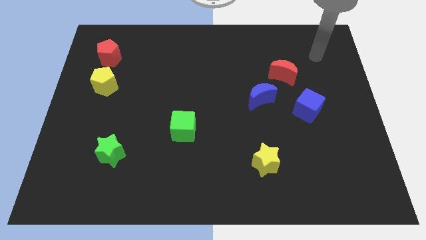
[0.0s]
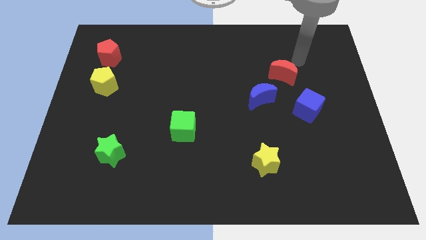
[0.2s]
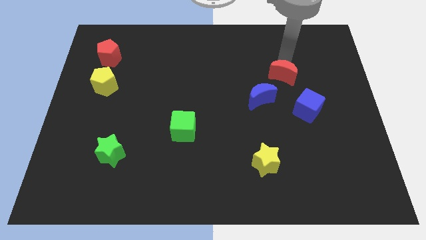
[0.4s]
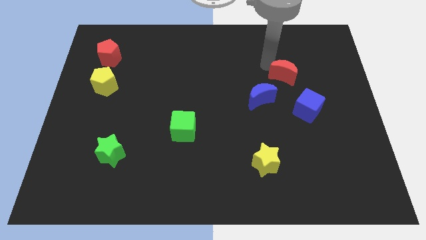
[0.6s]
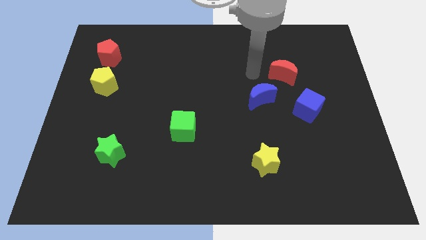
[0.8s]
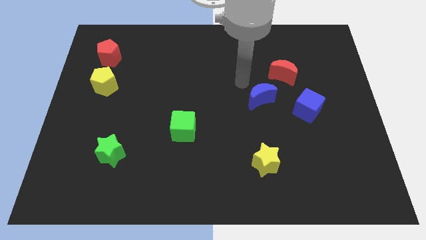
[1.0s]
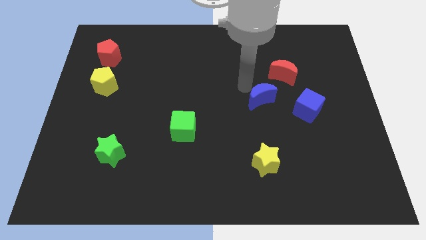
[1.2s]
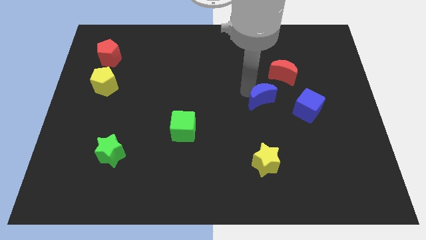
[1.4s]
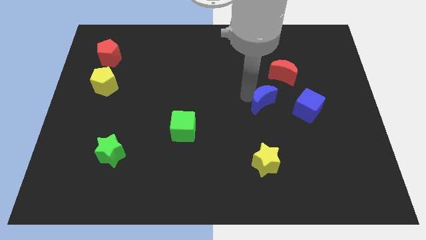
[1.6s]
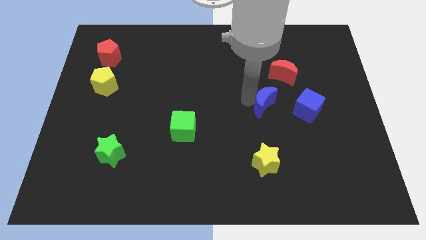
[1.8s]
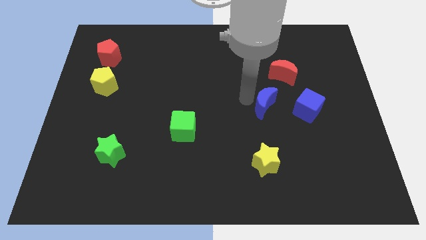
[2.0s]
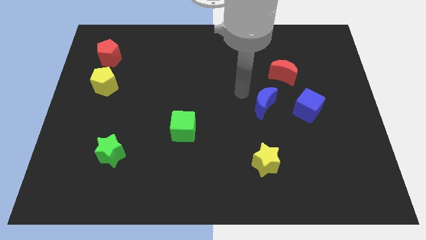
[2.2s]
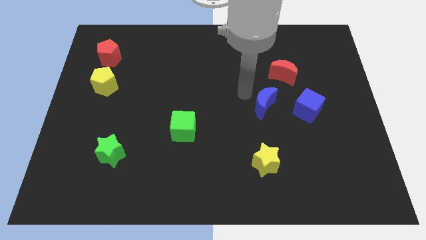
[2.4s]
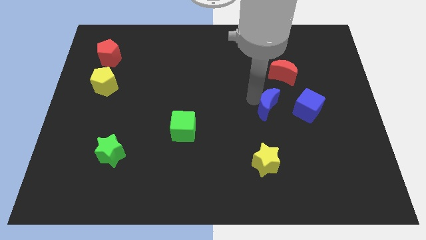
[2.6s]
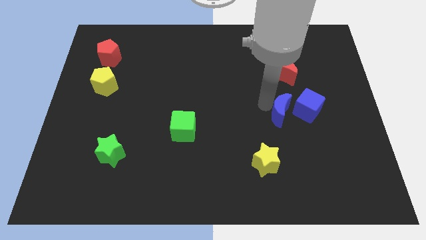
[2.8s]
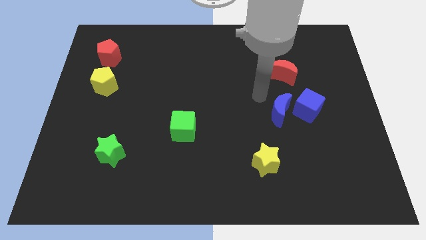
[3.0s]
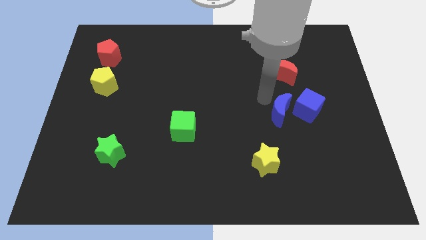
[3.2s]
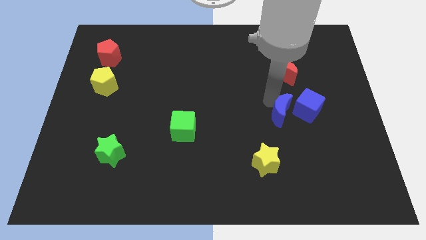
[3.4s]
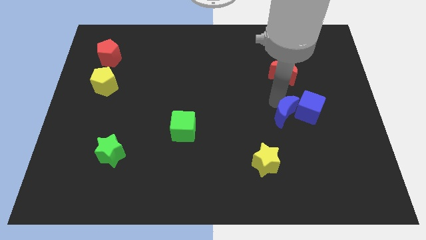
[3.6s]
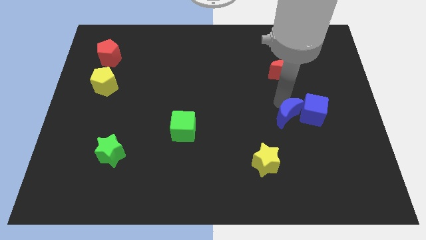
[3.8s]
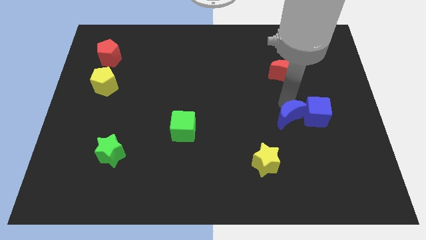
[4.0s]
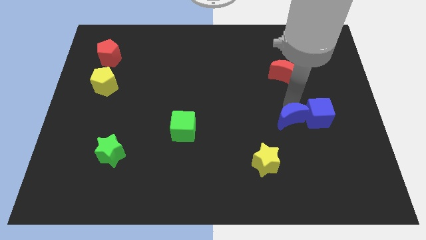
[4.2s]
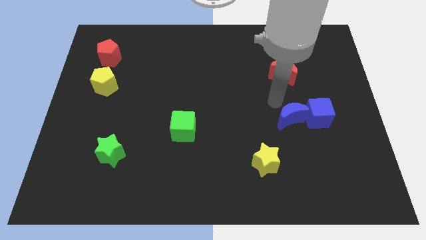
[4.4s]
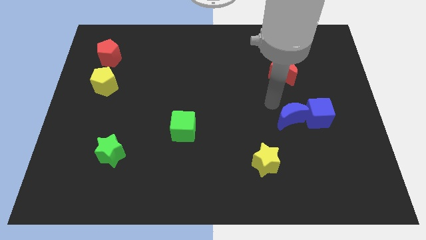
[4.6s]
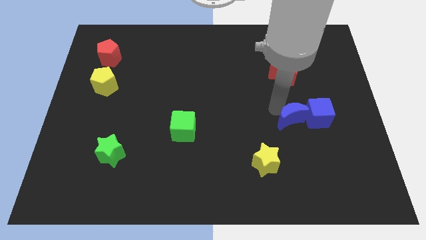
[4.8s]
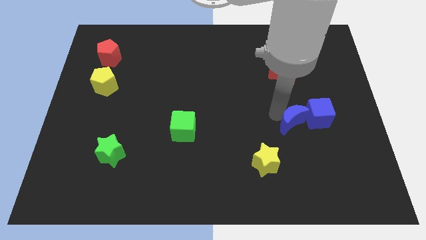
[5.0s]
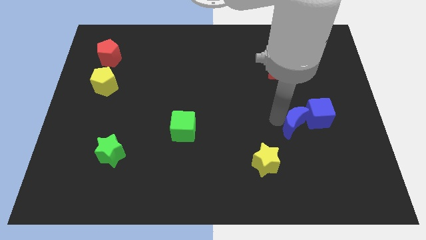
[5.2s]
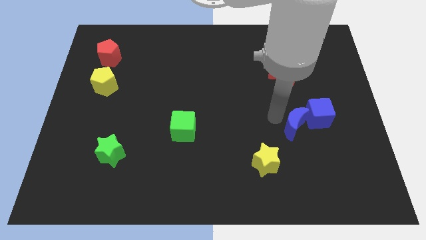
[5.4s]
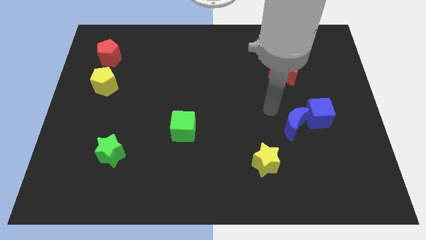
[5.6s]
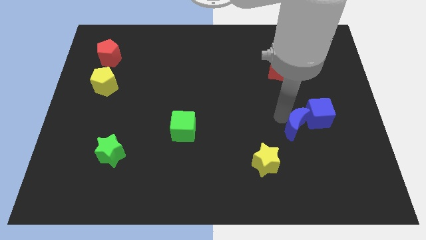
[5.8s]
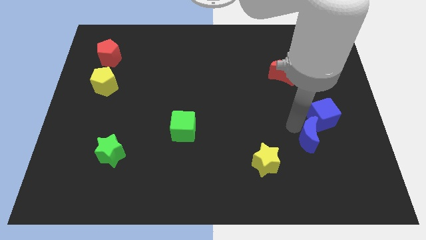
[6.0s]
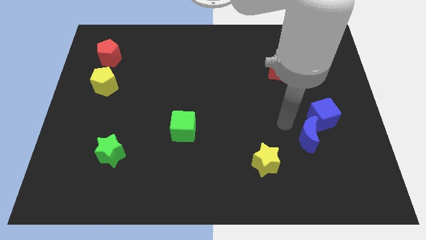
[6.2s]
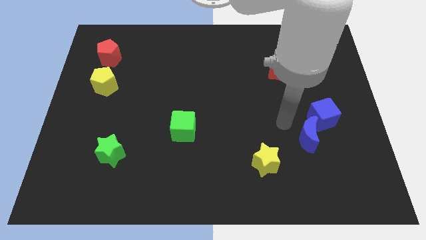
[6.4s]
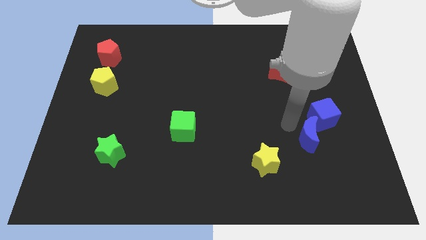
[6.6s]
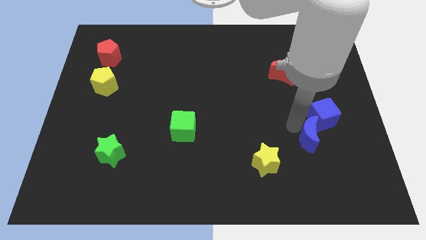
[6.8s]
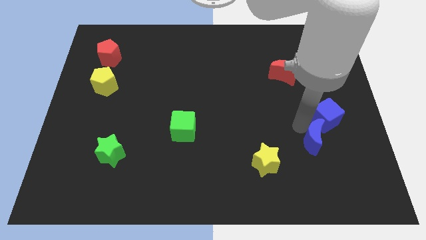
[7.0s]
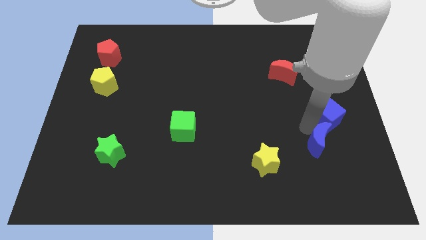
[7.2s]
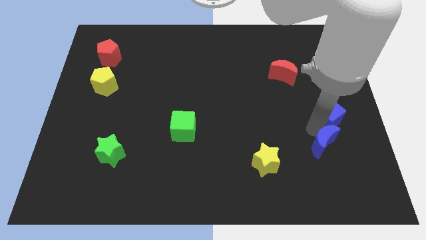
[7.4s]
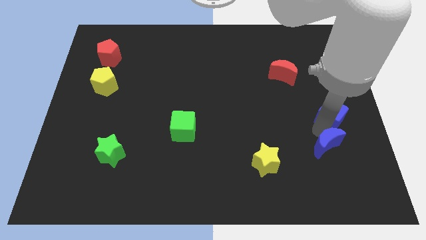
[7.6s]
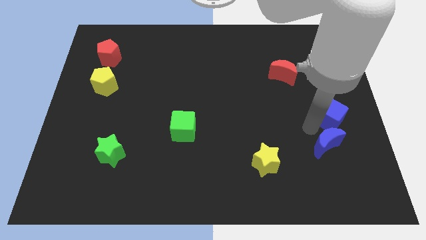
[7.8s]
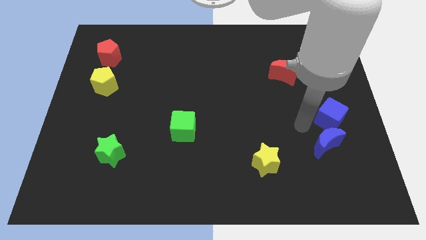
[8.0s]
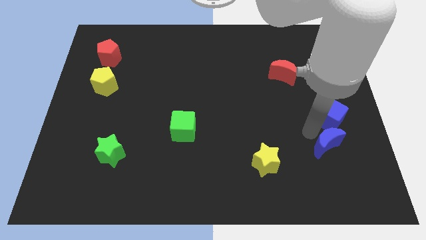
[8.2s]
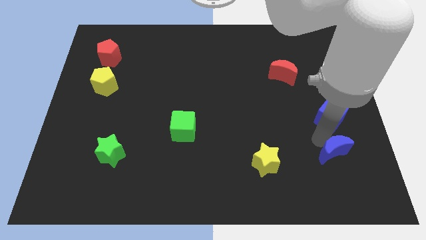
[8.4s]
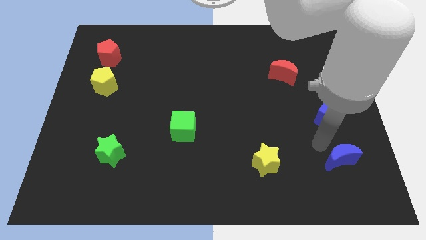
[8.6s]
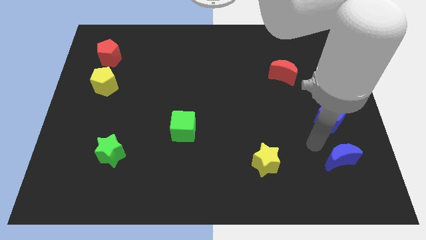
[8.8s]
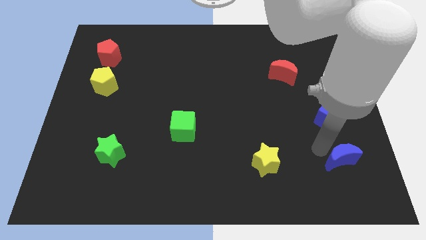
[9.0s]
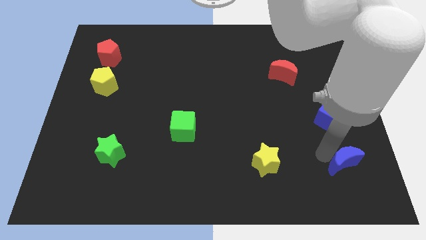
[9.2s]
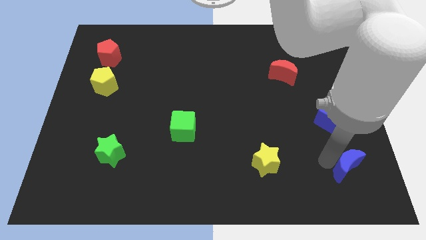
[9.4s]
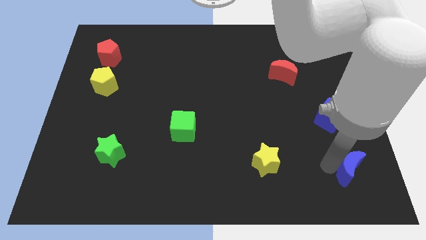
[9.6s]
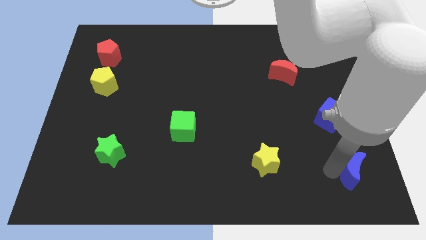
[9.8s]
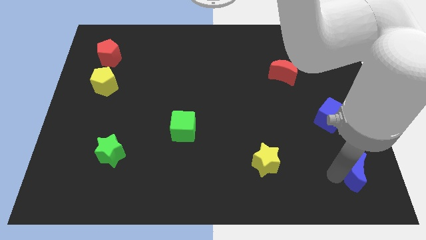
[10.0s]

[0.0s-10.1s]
put the blue moon to the lower right corner

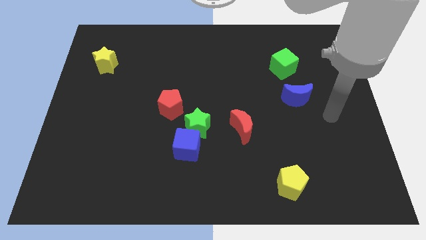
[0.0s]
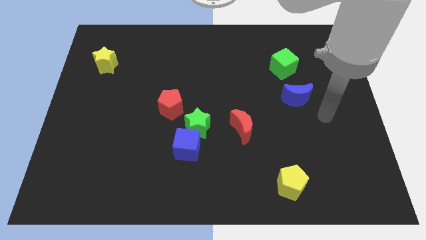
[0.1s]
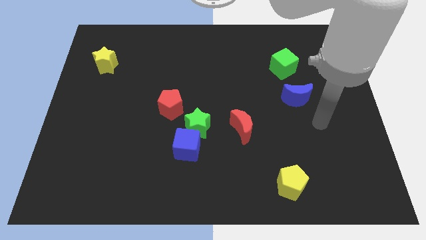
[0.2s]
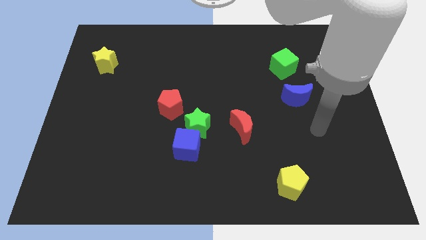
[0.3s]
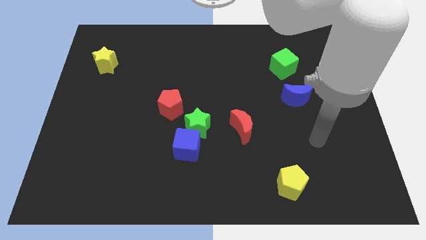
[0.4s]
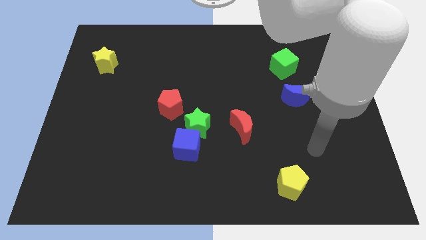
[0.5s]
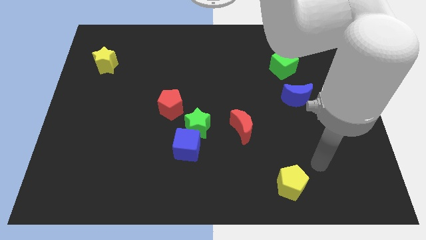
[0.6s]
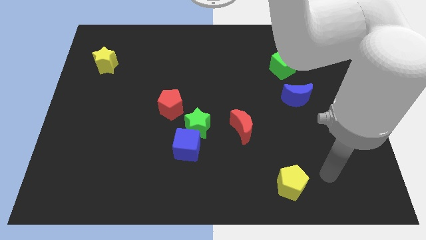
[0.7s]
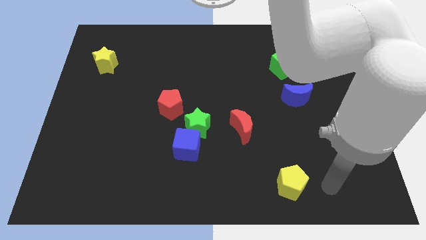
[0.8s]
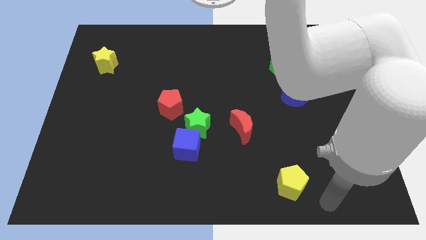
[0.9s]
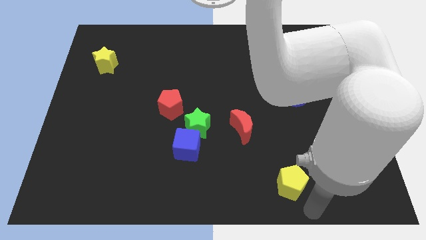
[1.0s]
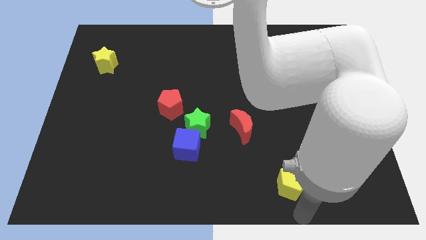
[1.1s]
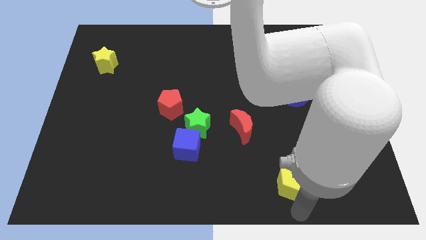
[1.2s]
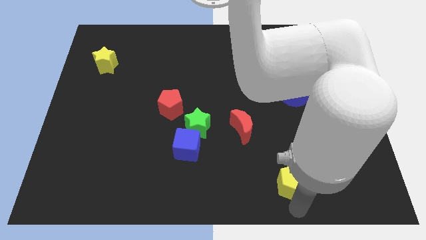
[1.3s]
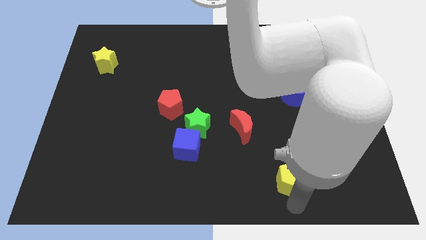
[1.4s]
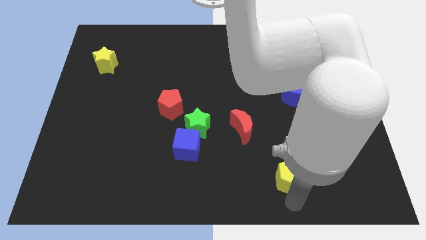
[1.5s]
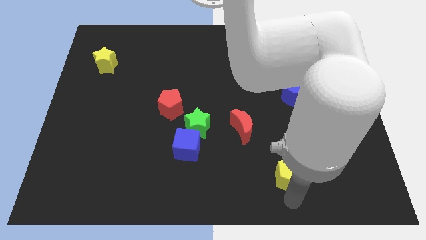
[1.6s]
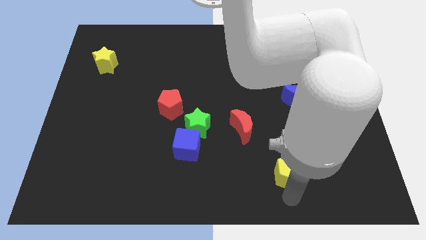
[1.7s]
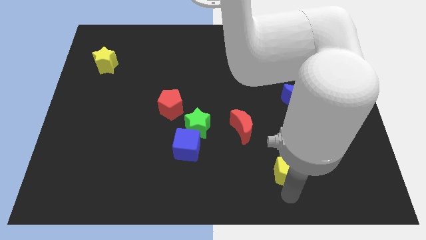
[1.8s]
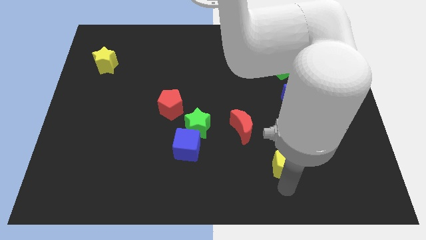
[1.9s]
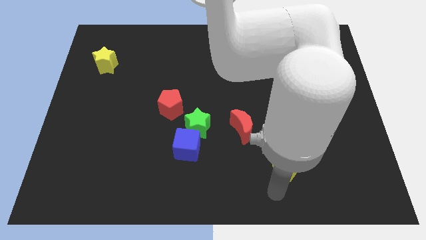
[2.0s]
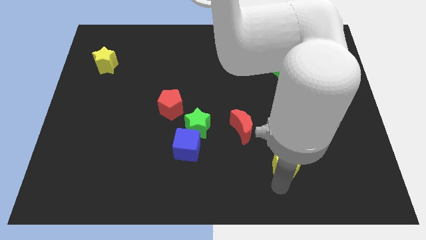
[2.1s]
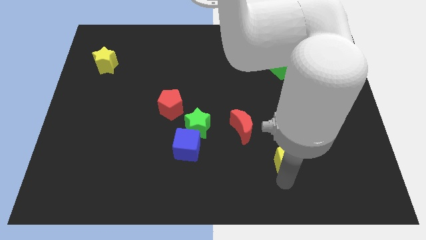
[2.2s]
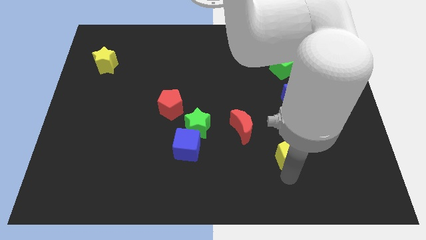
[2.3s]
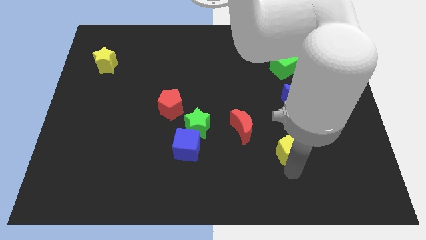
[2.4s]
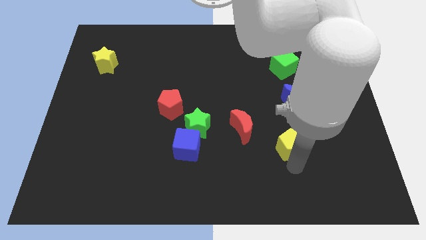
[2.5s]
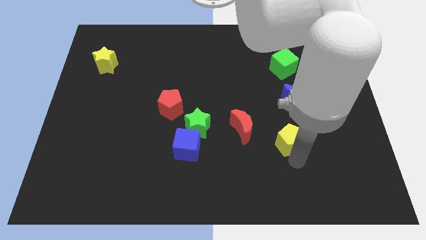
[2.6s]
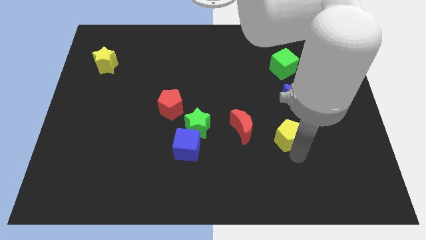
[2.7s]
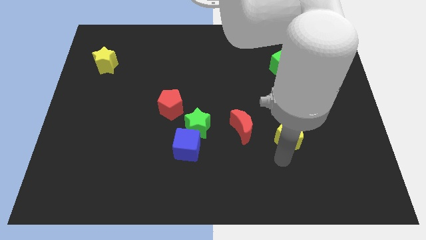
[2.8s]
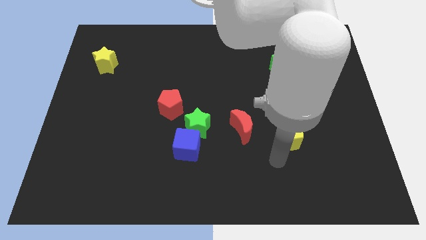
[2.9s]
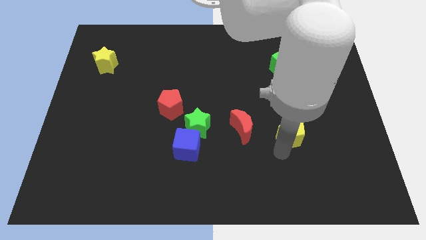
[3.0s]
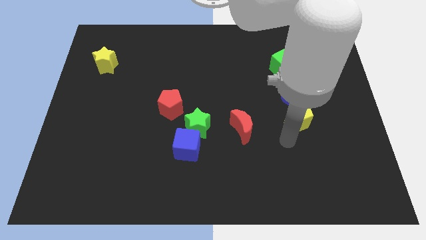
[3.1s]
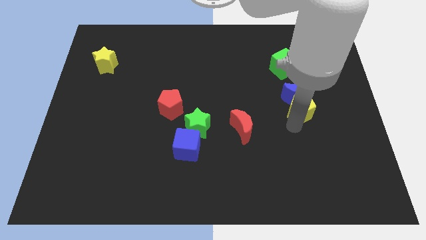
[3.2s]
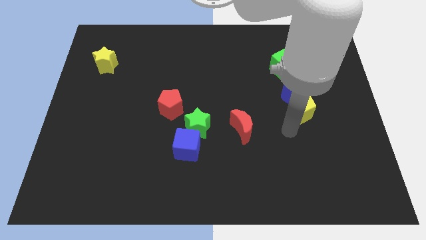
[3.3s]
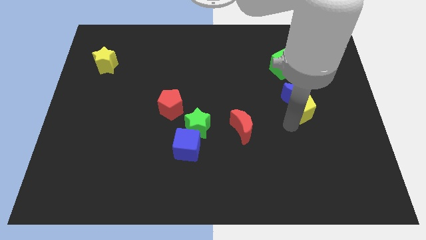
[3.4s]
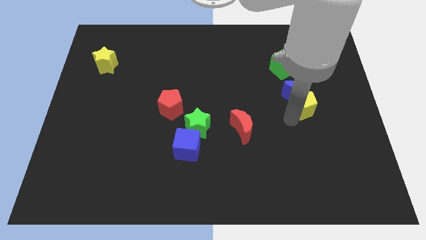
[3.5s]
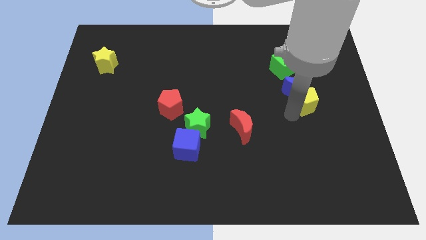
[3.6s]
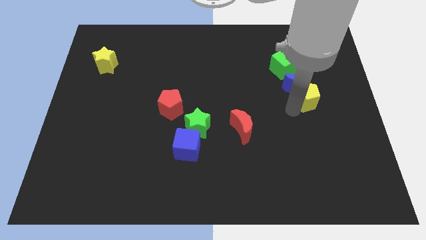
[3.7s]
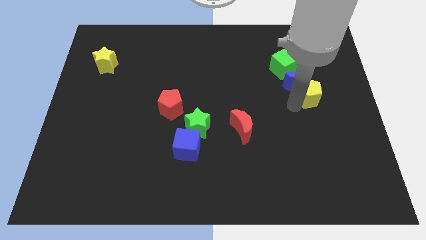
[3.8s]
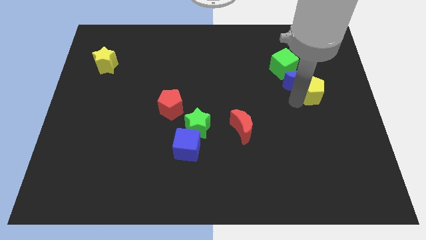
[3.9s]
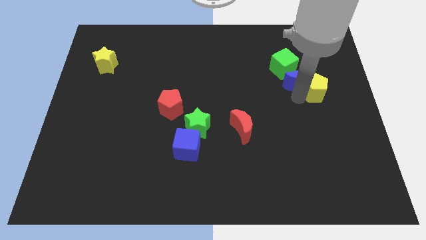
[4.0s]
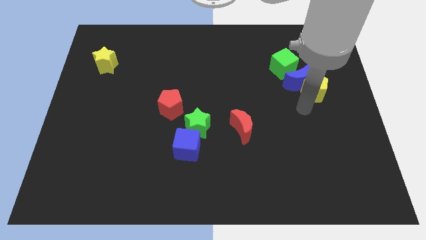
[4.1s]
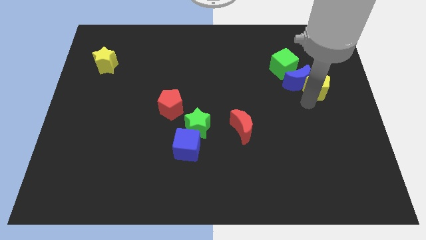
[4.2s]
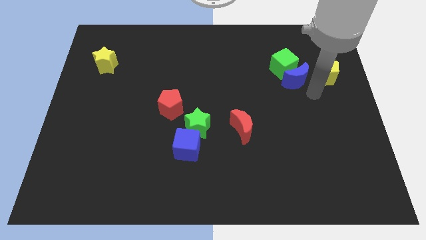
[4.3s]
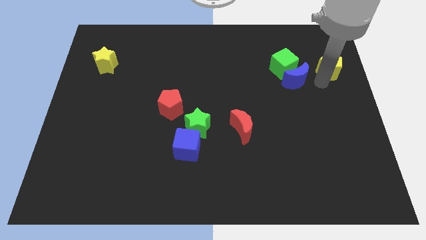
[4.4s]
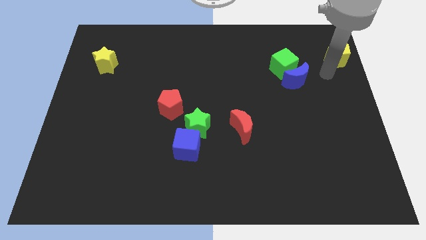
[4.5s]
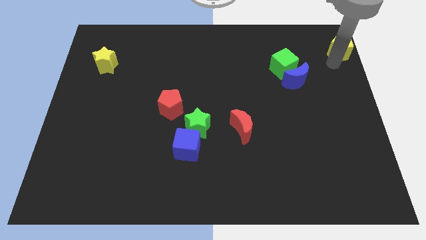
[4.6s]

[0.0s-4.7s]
move the yellow pentagon to the upper right corner
